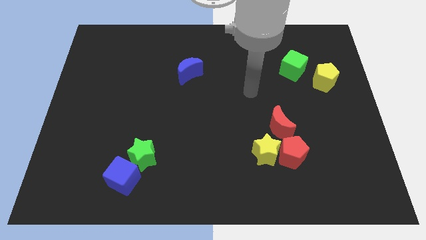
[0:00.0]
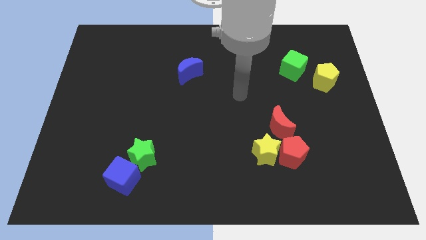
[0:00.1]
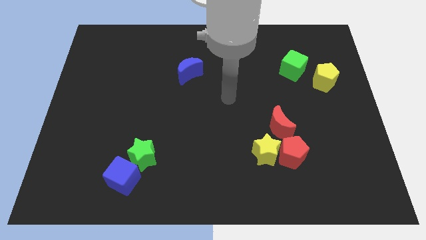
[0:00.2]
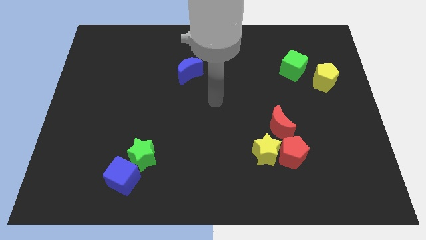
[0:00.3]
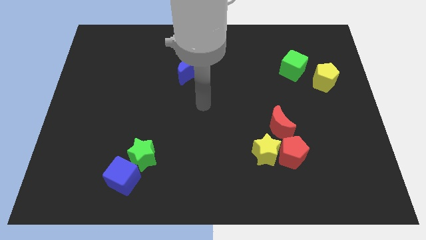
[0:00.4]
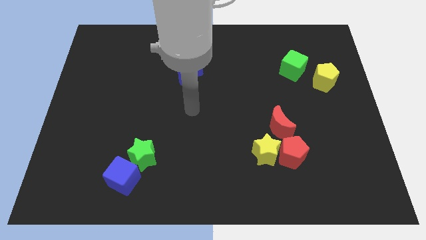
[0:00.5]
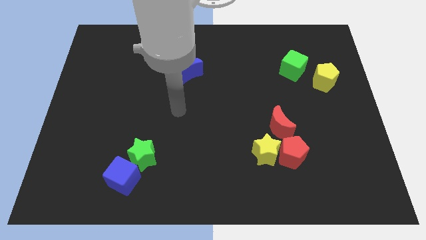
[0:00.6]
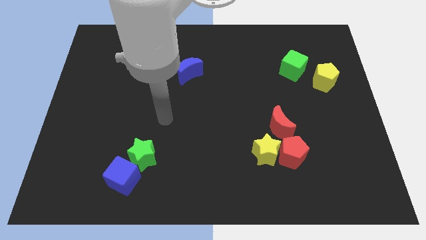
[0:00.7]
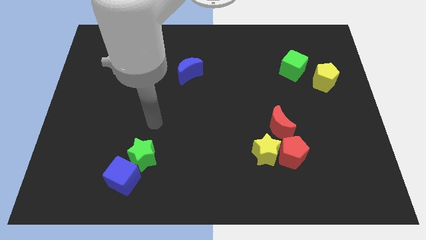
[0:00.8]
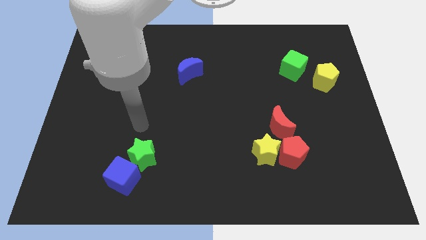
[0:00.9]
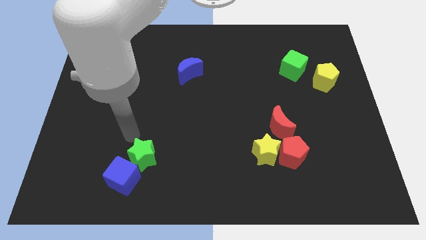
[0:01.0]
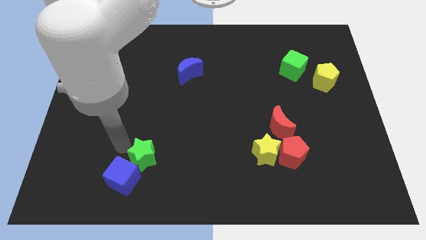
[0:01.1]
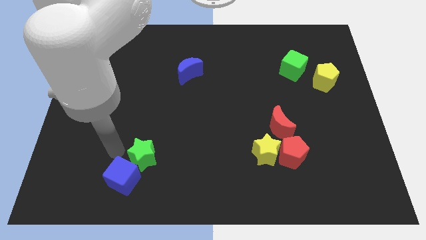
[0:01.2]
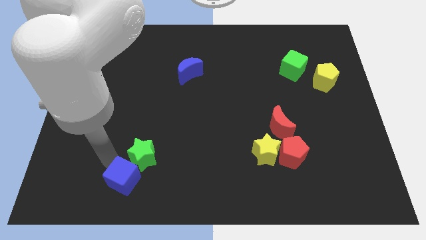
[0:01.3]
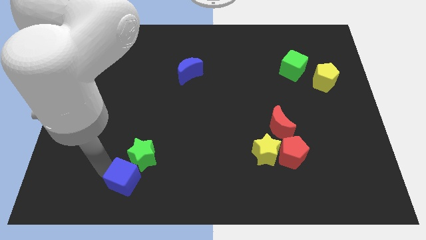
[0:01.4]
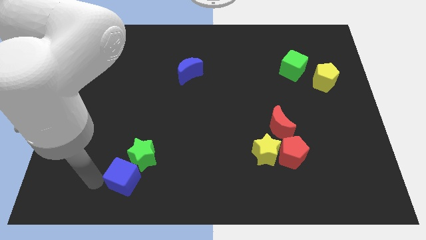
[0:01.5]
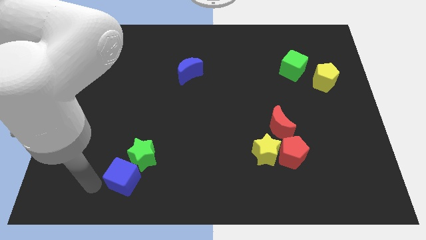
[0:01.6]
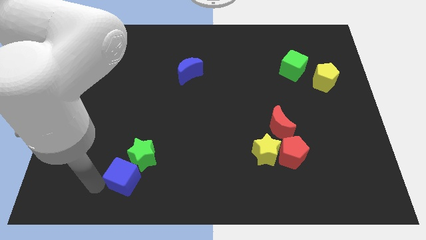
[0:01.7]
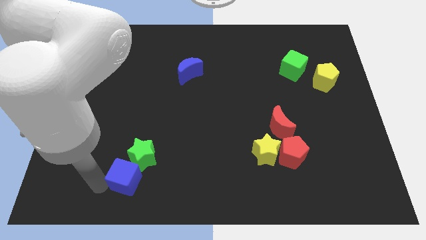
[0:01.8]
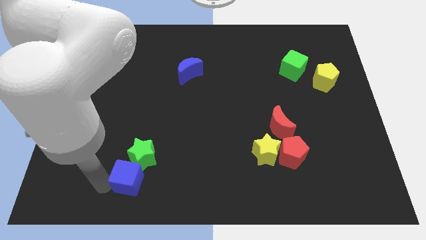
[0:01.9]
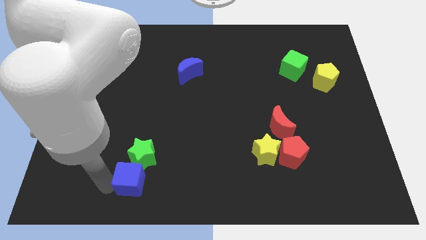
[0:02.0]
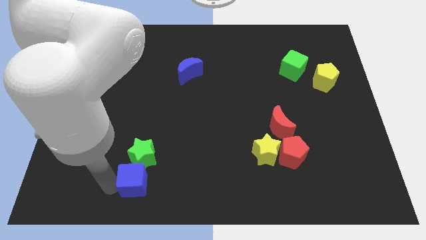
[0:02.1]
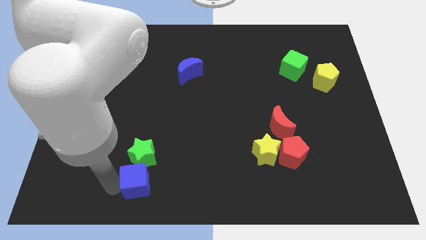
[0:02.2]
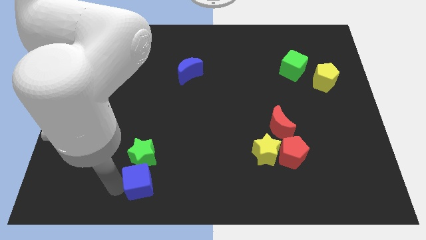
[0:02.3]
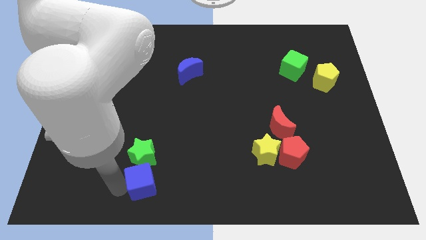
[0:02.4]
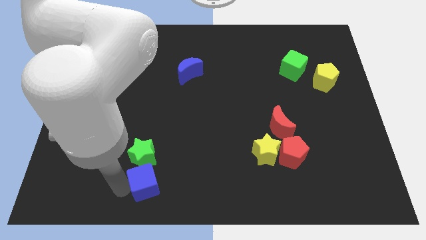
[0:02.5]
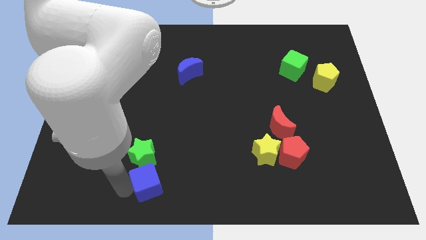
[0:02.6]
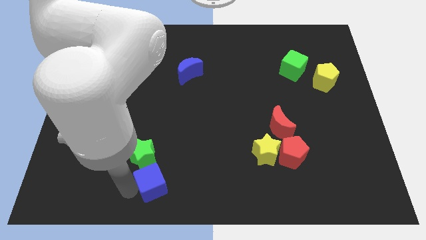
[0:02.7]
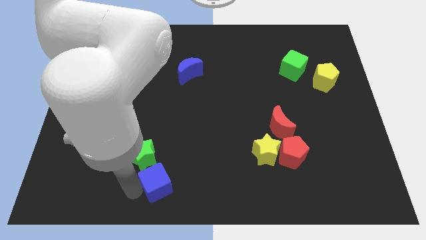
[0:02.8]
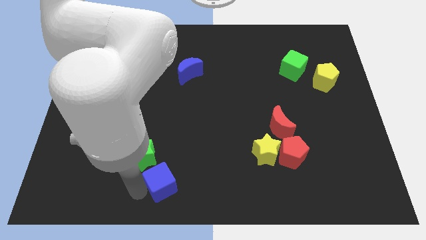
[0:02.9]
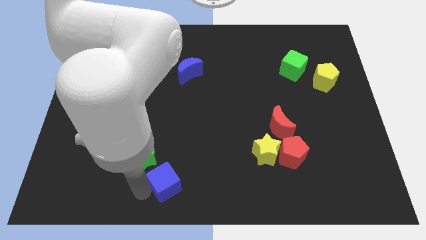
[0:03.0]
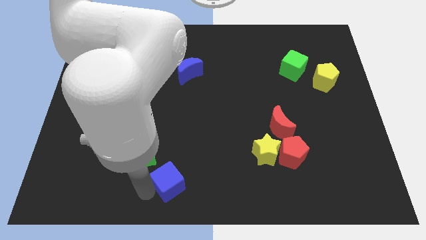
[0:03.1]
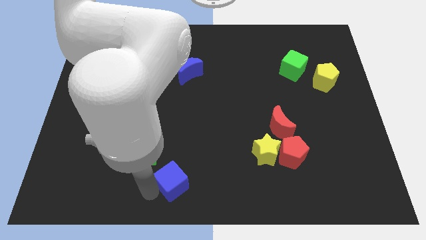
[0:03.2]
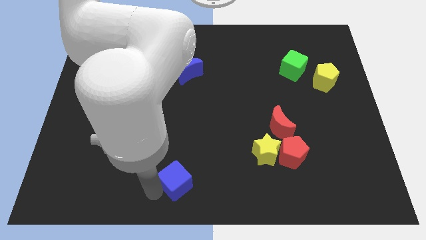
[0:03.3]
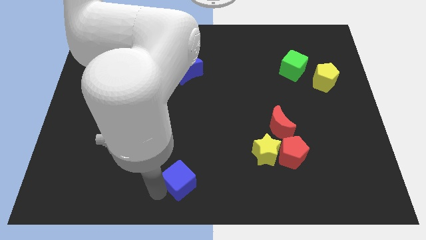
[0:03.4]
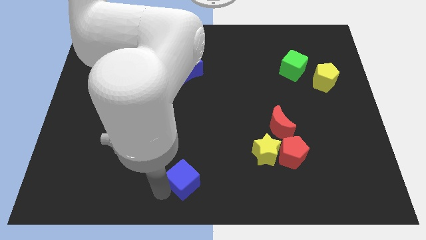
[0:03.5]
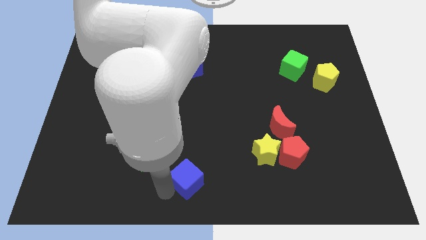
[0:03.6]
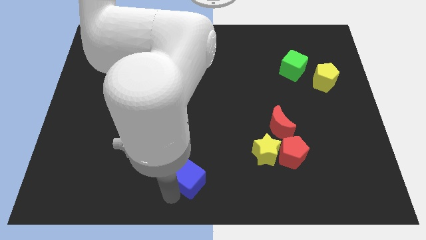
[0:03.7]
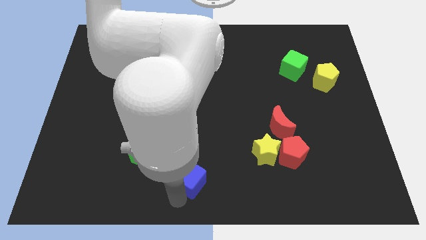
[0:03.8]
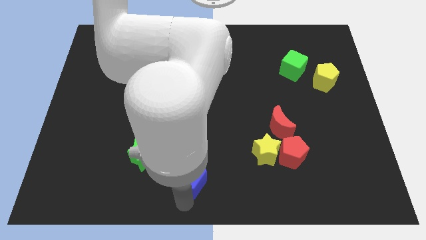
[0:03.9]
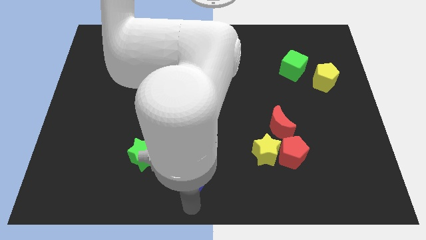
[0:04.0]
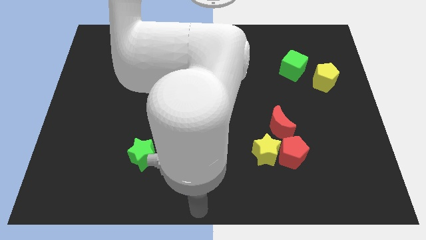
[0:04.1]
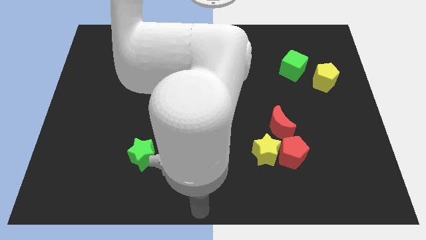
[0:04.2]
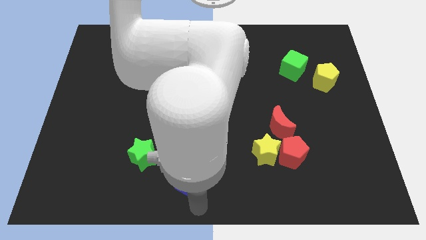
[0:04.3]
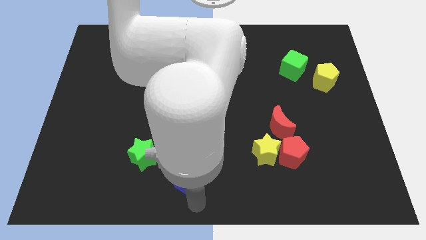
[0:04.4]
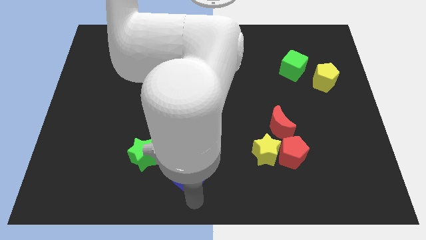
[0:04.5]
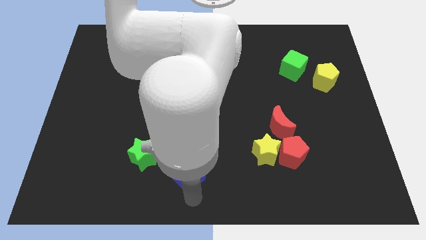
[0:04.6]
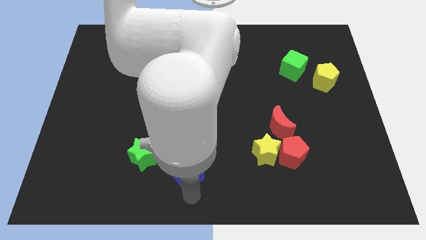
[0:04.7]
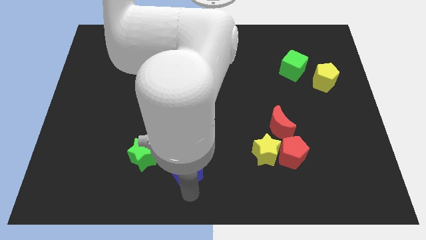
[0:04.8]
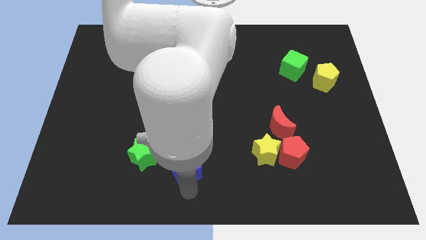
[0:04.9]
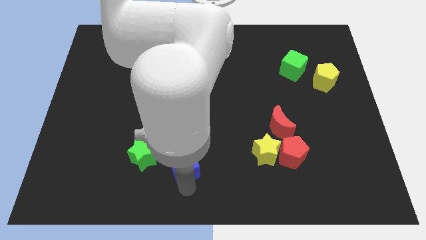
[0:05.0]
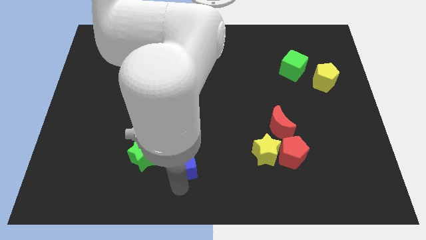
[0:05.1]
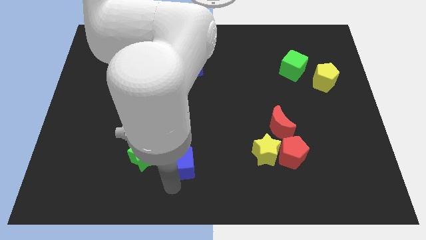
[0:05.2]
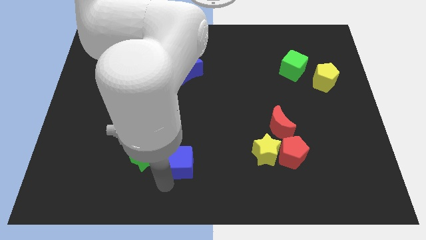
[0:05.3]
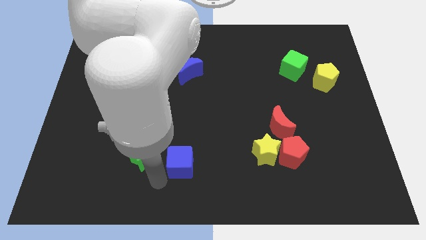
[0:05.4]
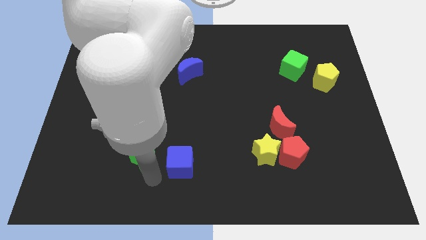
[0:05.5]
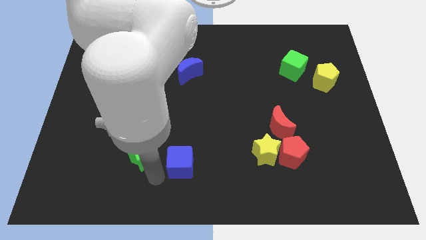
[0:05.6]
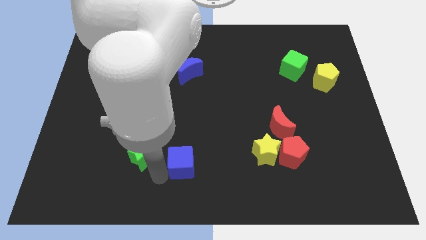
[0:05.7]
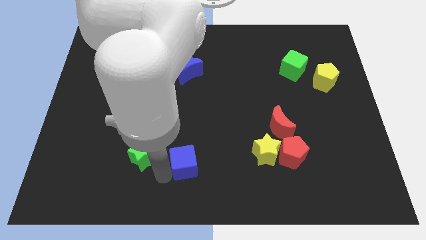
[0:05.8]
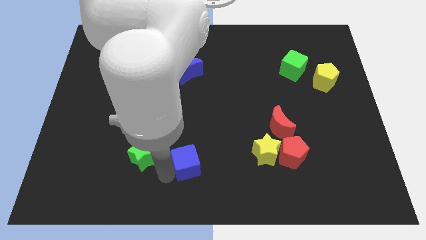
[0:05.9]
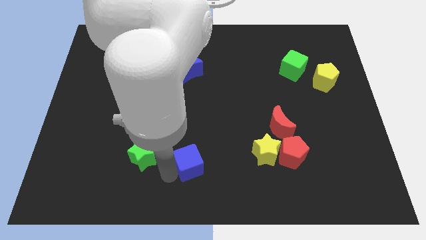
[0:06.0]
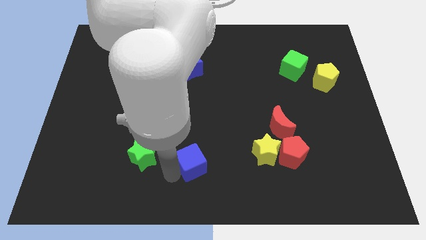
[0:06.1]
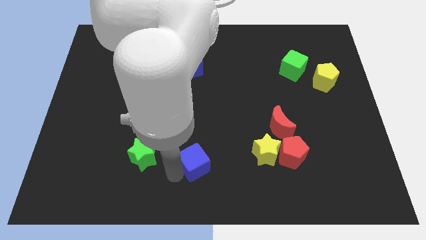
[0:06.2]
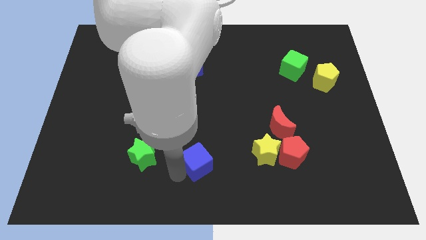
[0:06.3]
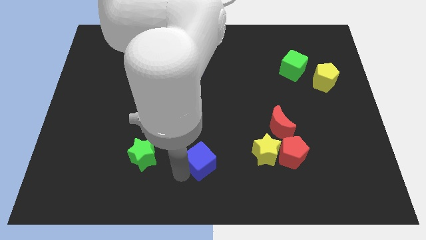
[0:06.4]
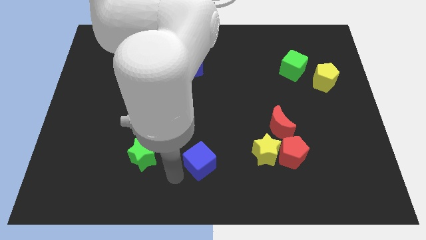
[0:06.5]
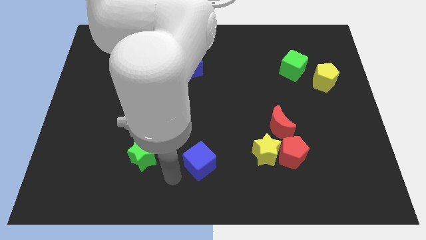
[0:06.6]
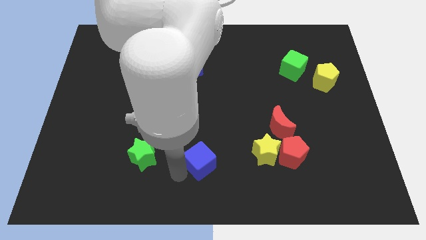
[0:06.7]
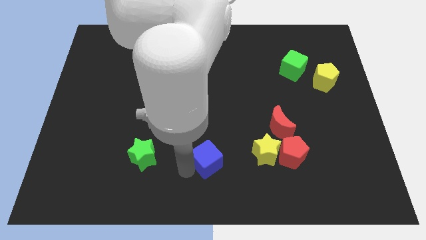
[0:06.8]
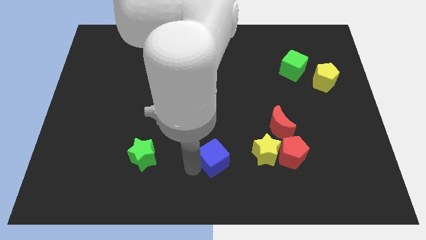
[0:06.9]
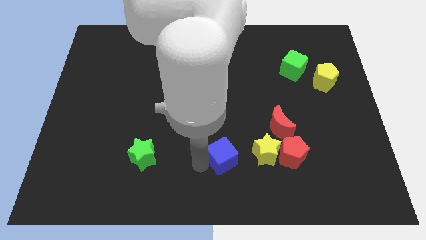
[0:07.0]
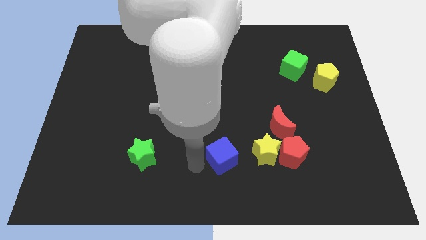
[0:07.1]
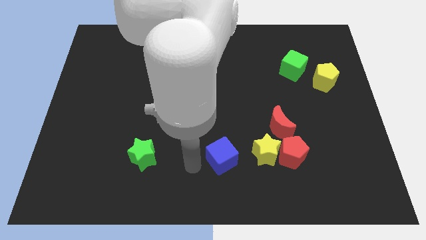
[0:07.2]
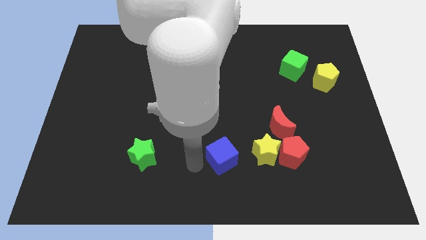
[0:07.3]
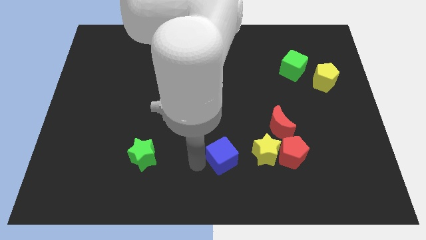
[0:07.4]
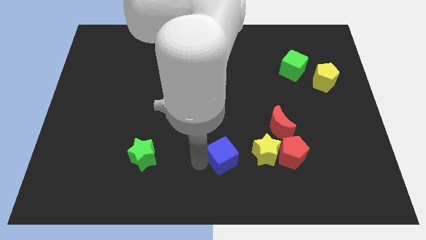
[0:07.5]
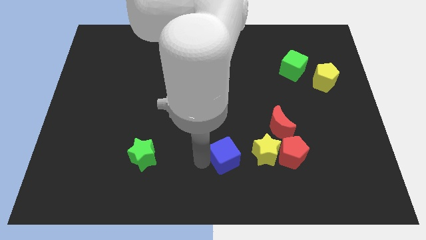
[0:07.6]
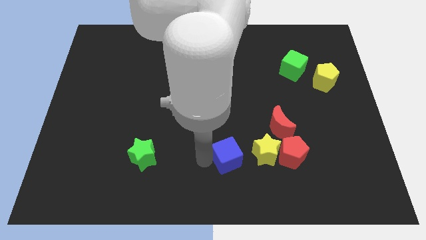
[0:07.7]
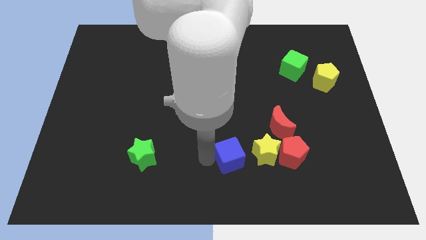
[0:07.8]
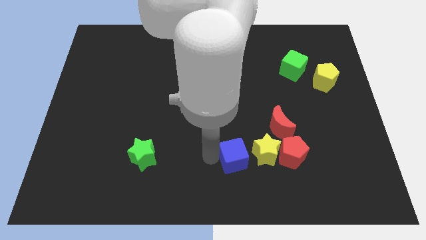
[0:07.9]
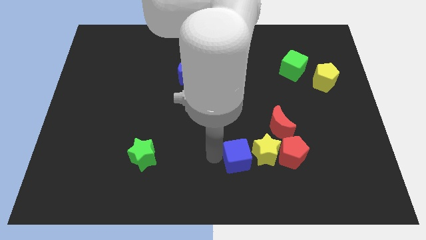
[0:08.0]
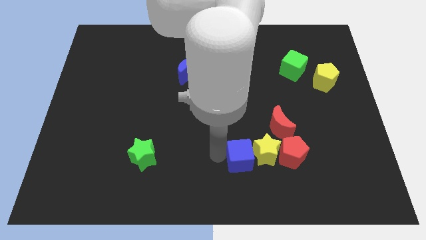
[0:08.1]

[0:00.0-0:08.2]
put the blue cube towards the yellow star
